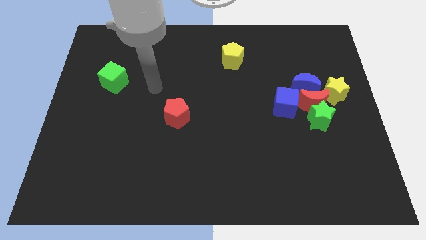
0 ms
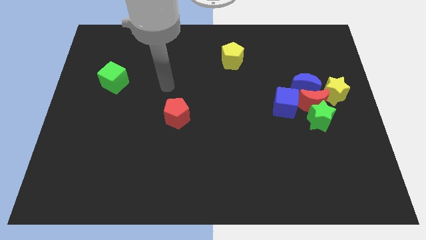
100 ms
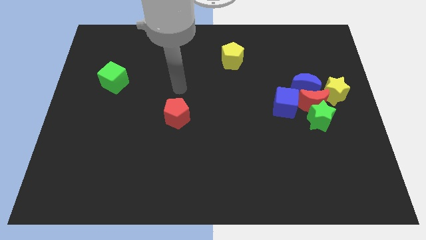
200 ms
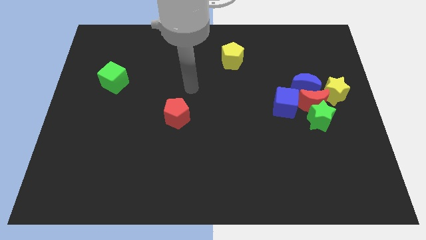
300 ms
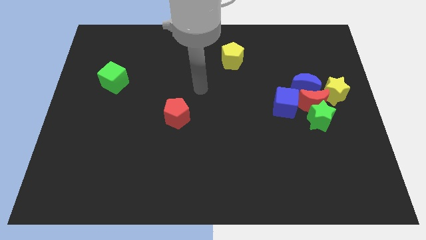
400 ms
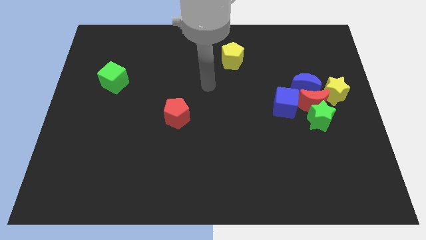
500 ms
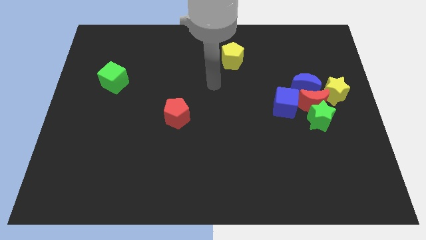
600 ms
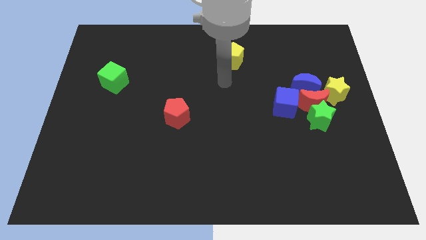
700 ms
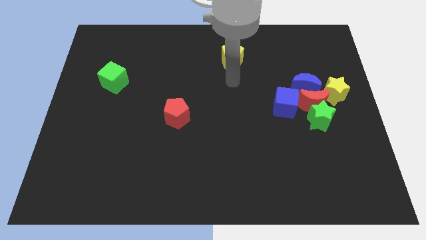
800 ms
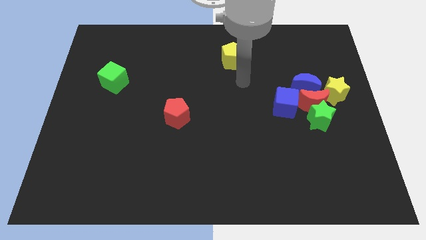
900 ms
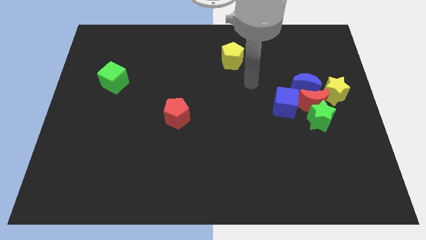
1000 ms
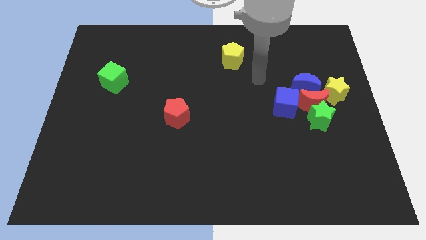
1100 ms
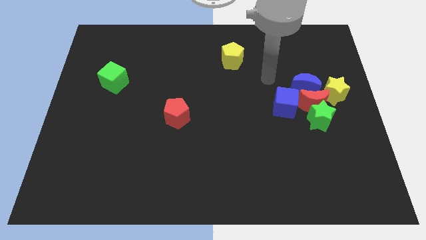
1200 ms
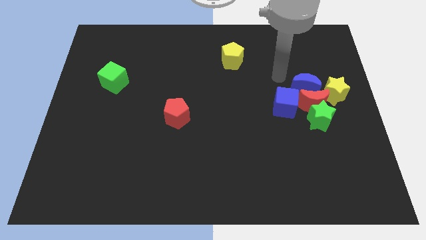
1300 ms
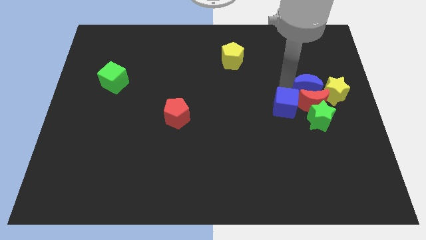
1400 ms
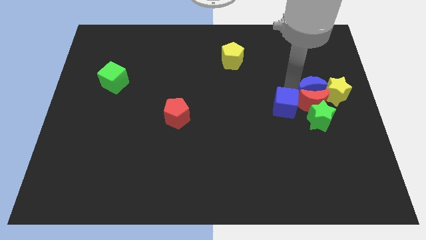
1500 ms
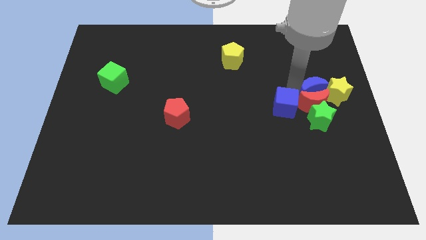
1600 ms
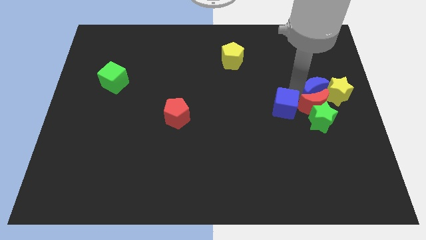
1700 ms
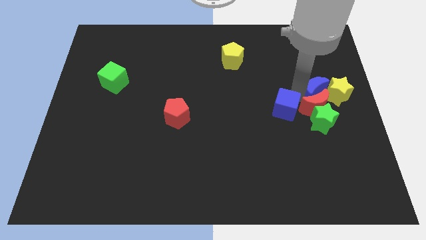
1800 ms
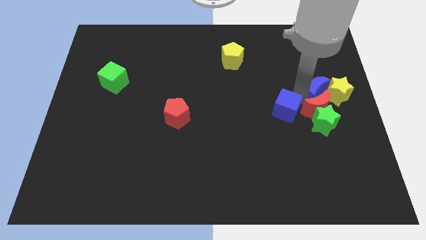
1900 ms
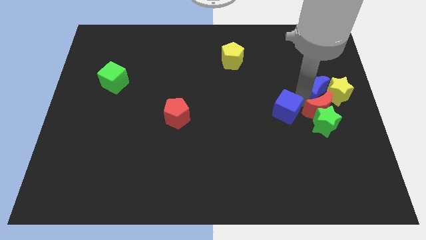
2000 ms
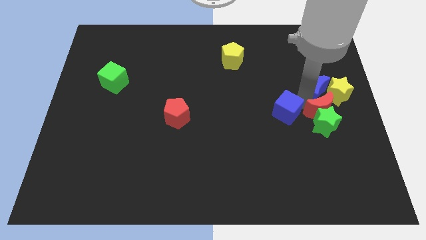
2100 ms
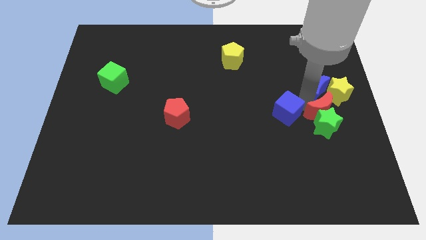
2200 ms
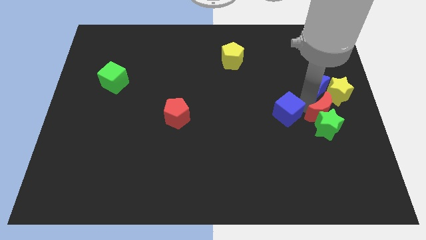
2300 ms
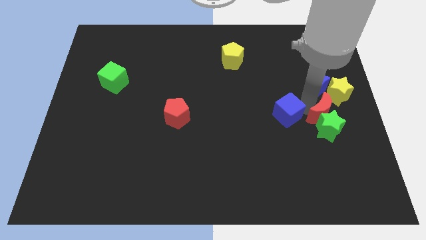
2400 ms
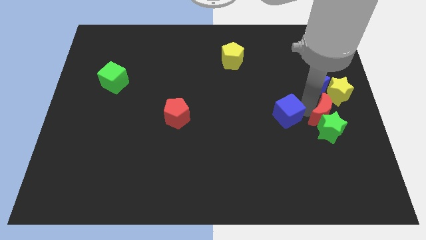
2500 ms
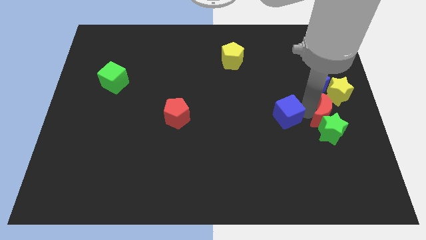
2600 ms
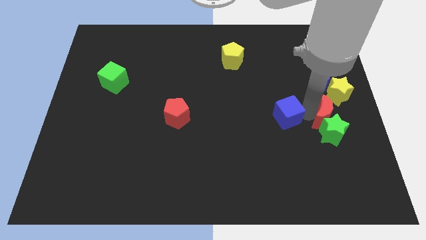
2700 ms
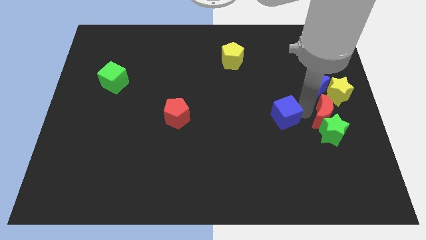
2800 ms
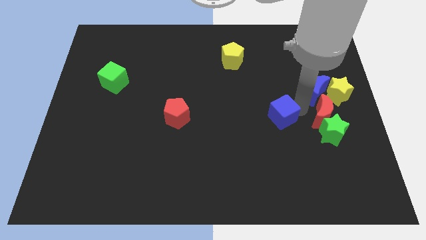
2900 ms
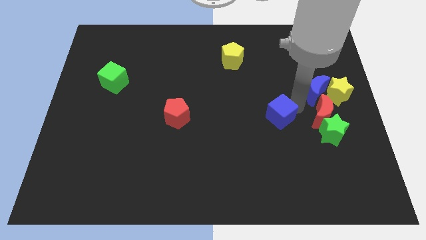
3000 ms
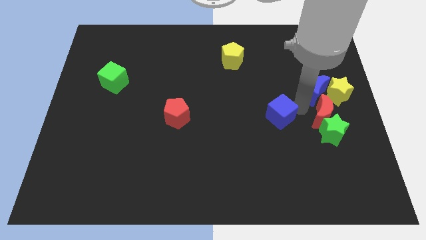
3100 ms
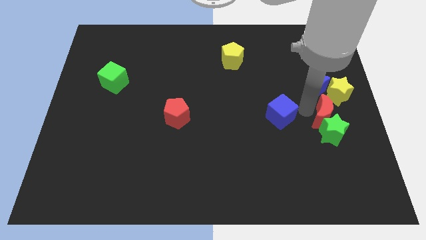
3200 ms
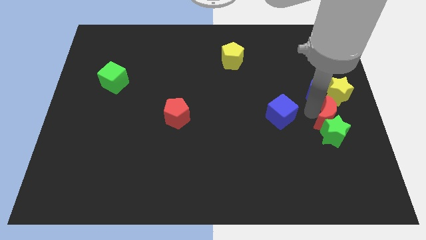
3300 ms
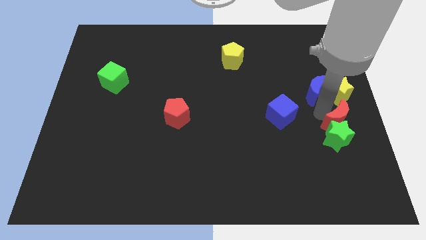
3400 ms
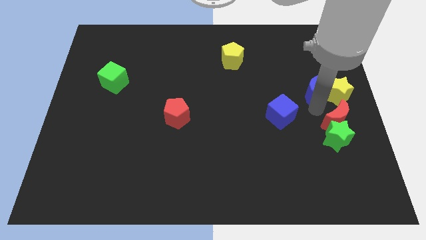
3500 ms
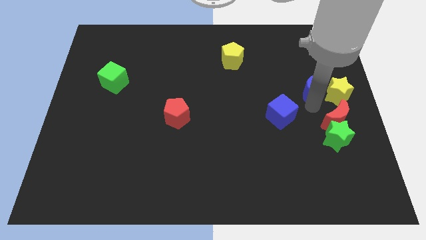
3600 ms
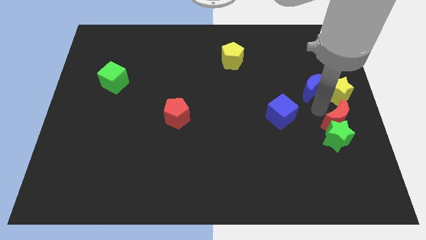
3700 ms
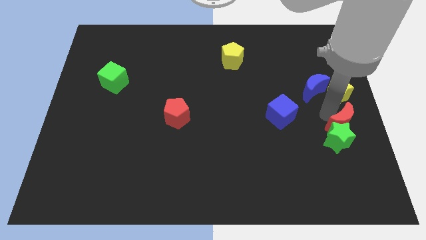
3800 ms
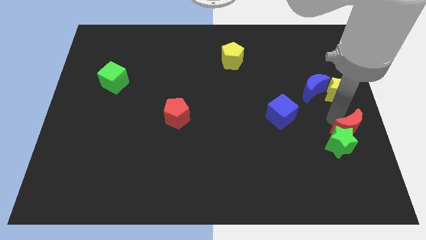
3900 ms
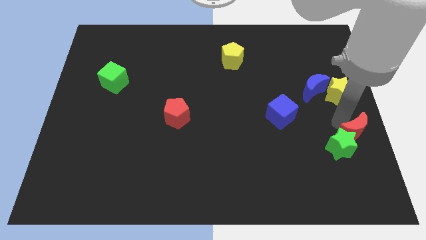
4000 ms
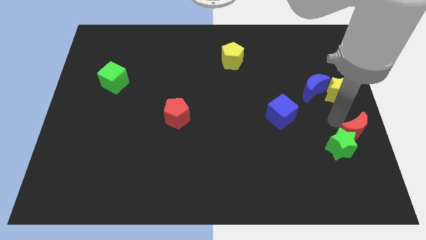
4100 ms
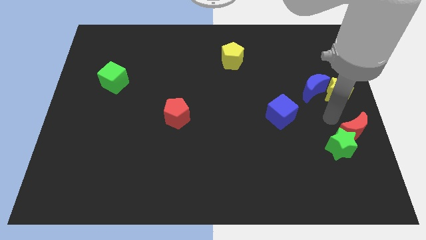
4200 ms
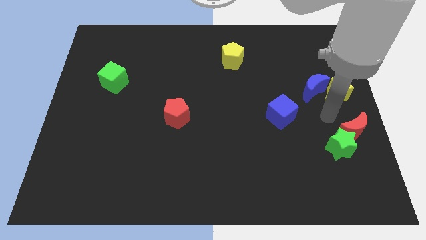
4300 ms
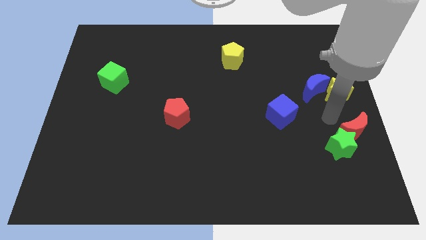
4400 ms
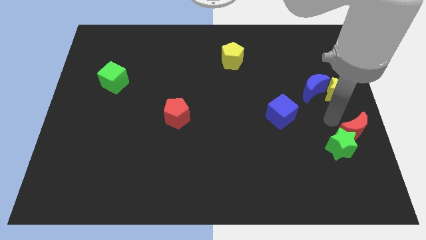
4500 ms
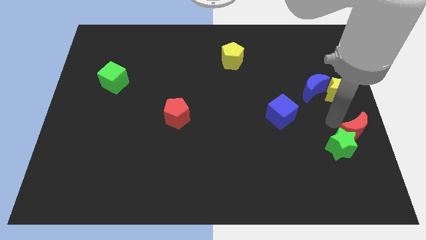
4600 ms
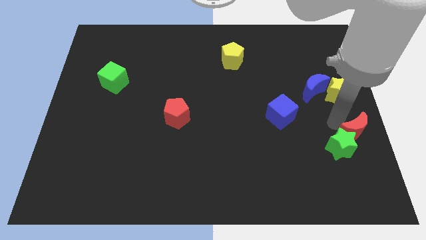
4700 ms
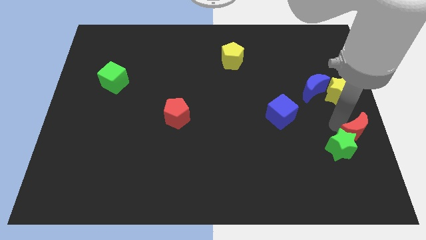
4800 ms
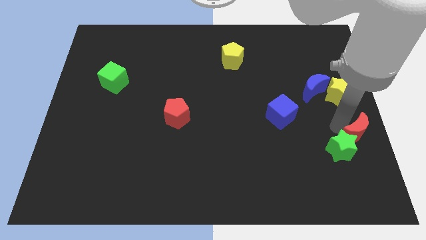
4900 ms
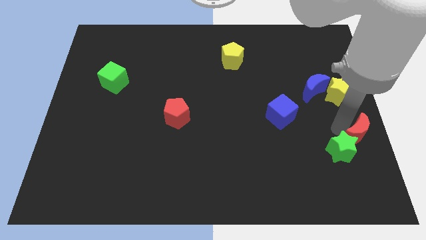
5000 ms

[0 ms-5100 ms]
pull the red moon apart from the clump

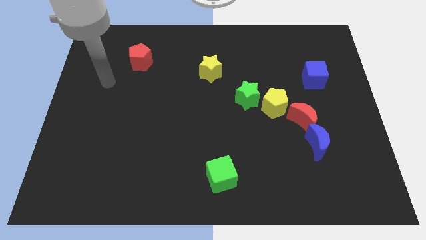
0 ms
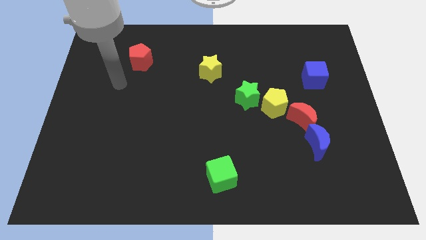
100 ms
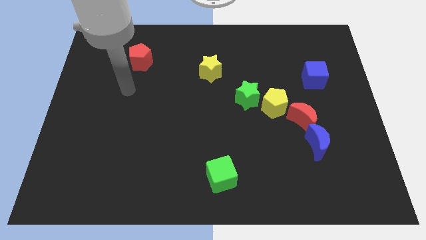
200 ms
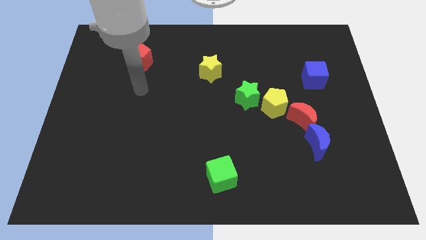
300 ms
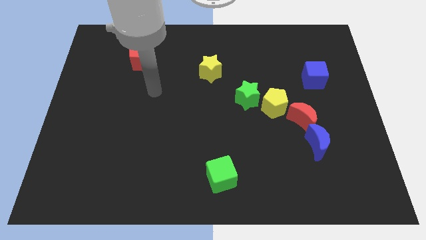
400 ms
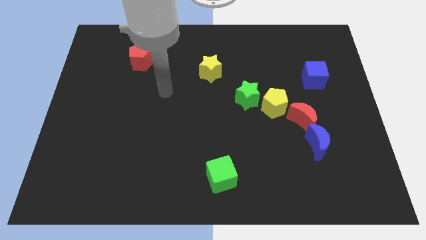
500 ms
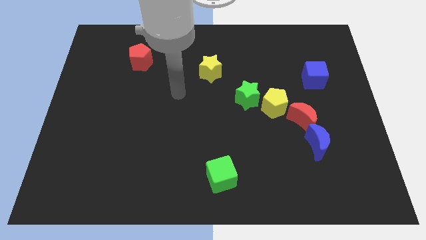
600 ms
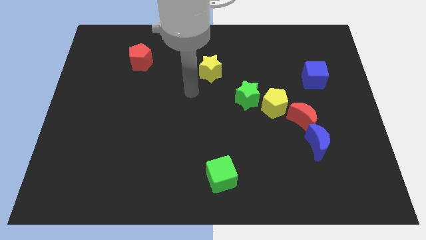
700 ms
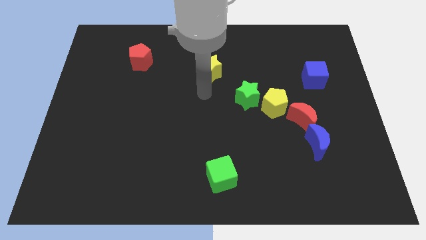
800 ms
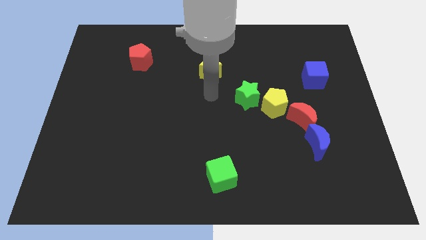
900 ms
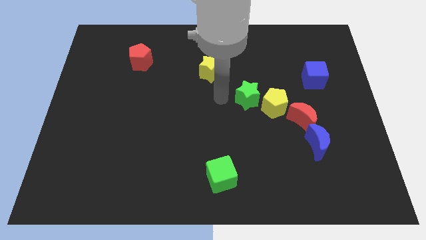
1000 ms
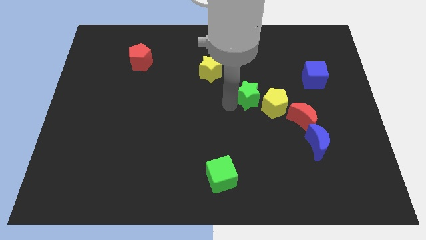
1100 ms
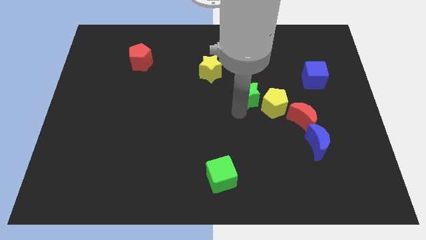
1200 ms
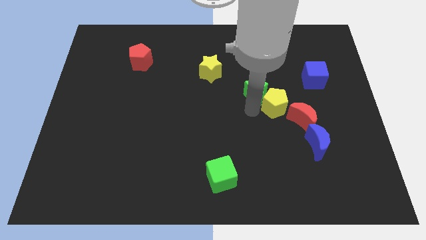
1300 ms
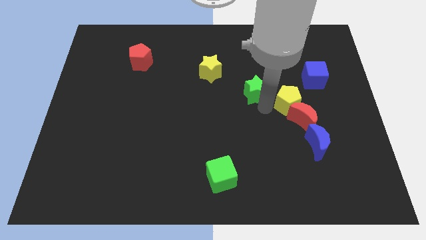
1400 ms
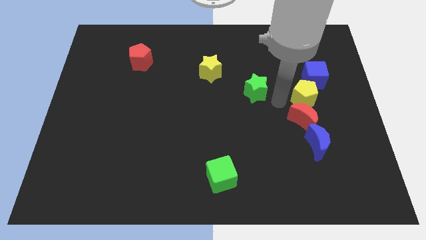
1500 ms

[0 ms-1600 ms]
move the green star away from the yellow pentagon

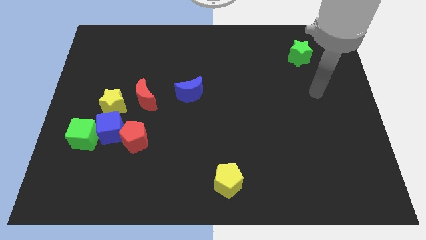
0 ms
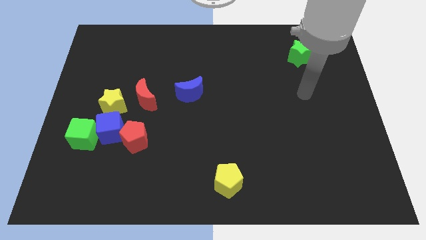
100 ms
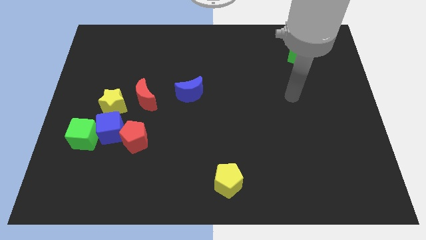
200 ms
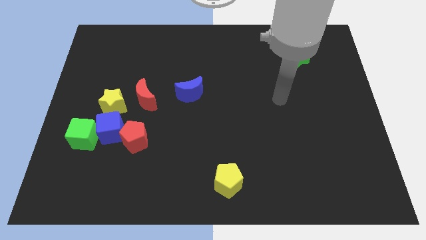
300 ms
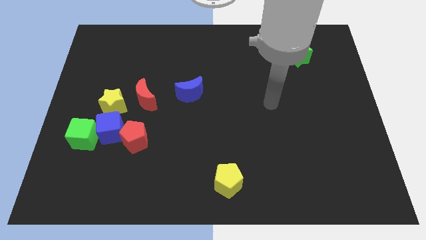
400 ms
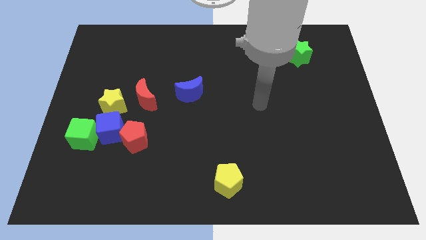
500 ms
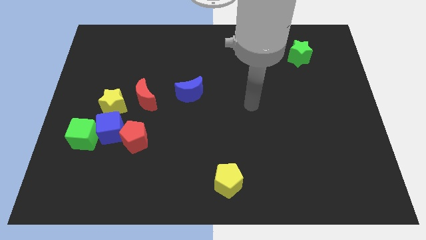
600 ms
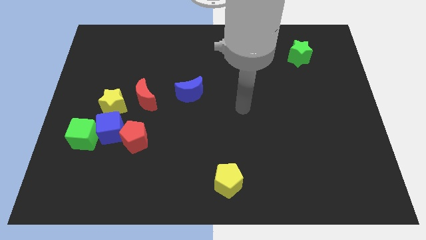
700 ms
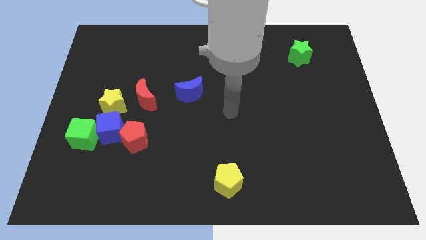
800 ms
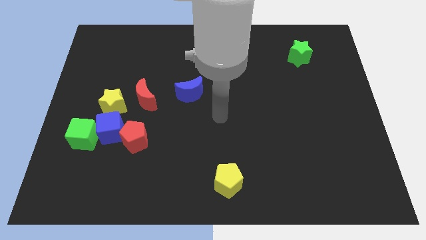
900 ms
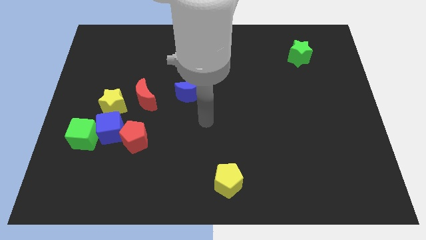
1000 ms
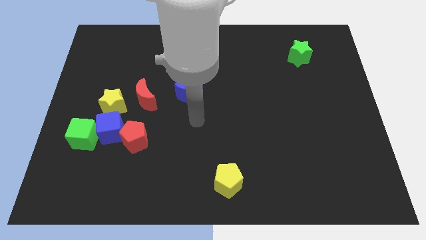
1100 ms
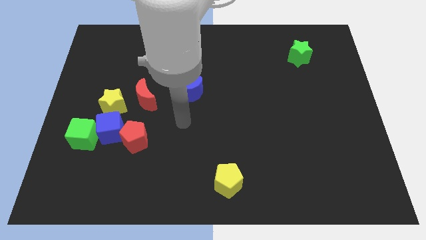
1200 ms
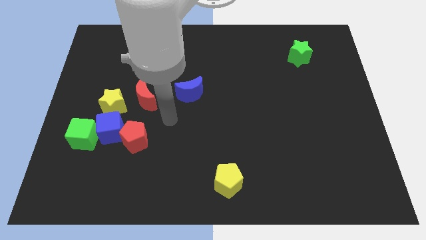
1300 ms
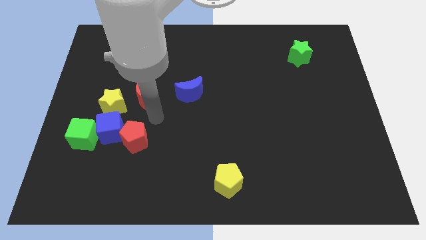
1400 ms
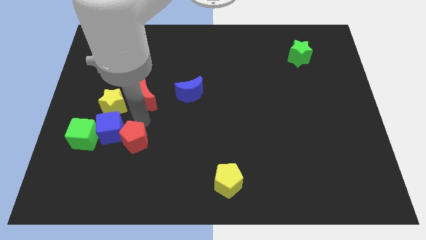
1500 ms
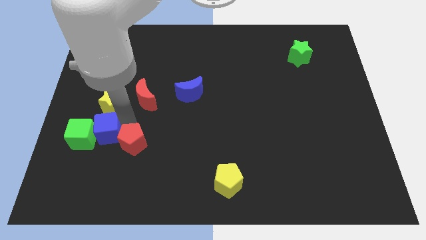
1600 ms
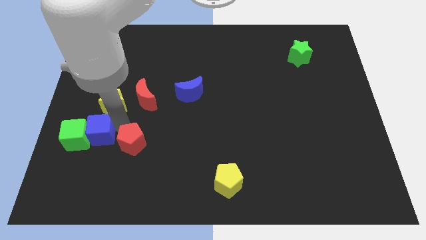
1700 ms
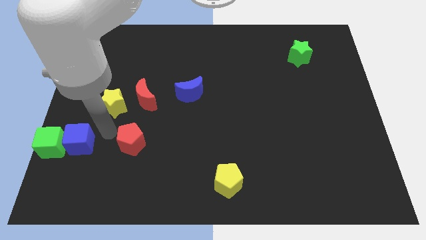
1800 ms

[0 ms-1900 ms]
separate the red pentagon from the blue cube

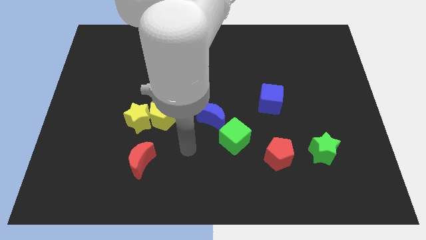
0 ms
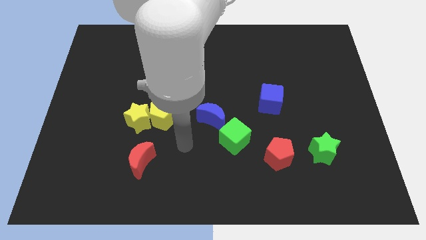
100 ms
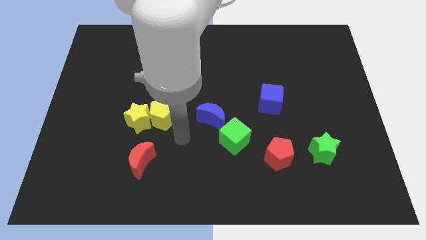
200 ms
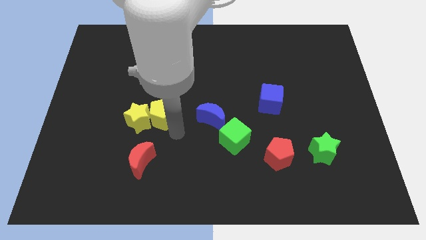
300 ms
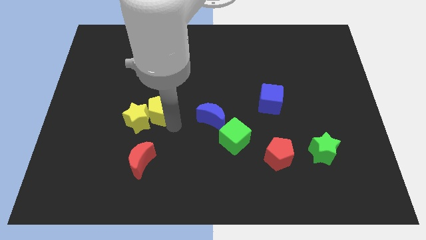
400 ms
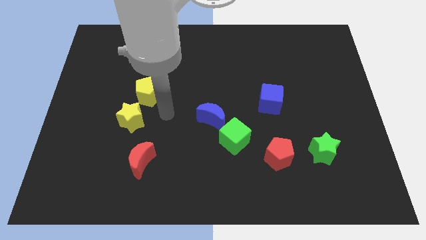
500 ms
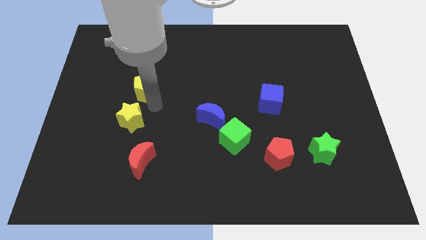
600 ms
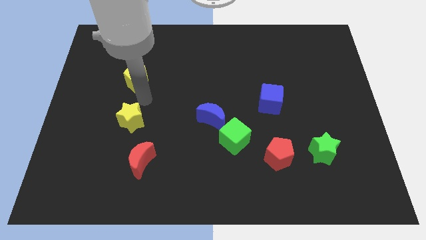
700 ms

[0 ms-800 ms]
pull the yellow star apart from the yellow pentagon
